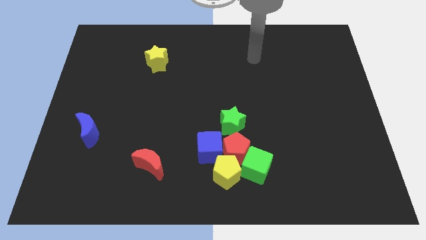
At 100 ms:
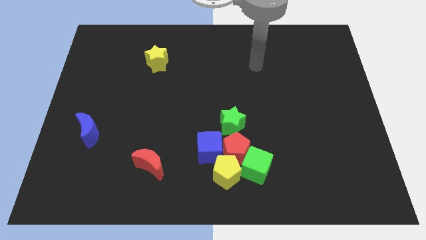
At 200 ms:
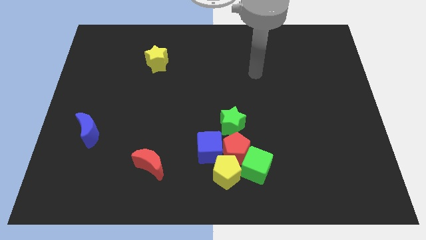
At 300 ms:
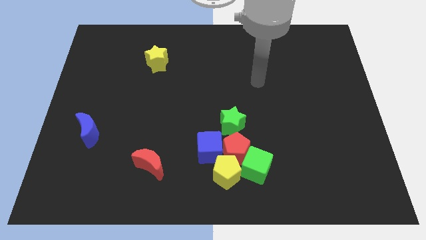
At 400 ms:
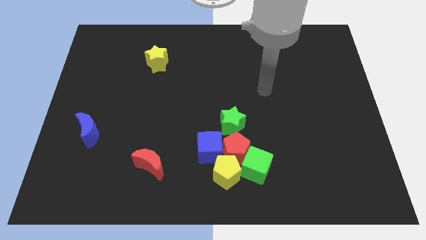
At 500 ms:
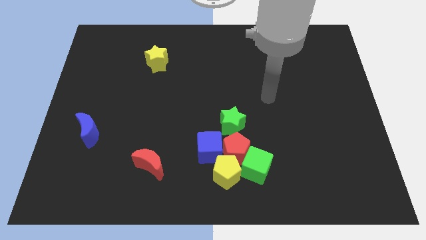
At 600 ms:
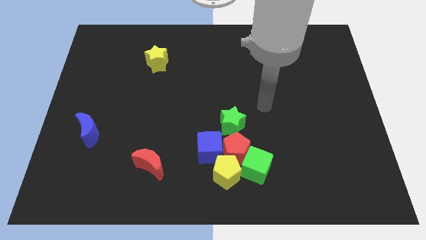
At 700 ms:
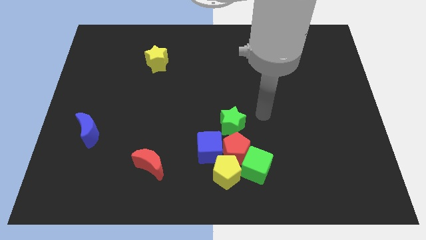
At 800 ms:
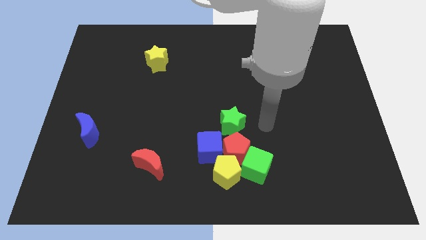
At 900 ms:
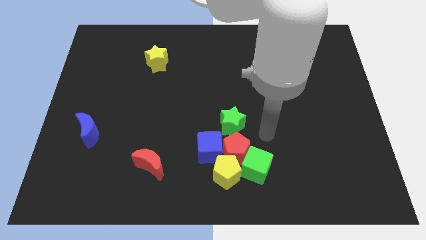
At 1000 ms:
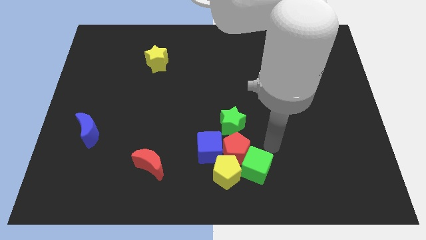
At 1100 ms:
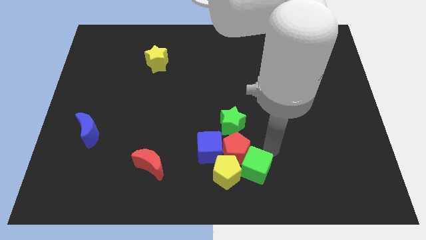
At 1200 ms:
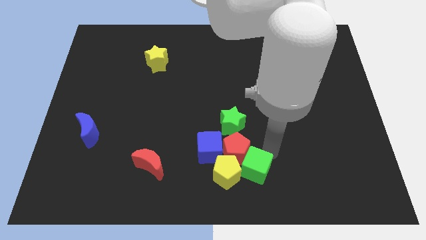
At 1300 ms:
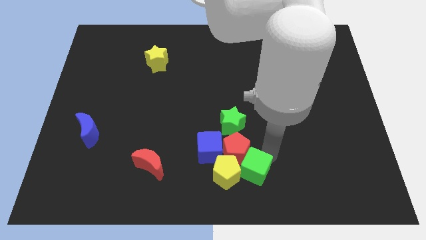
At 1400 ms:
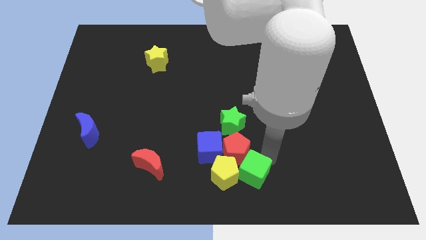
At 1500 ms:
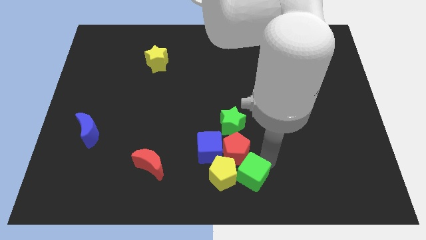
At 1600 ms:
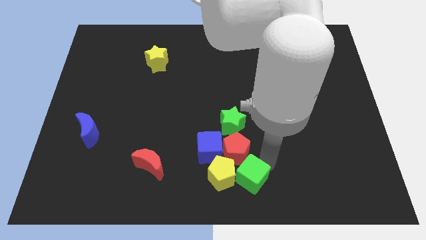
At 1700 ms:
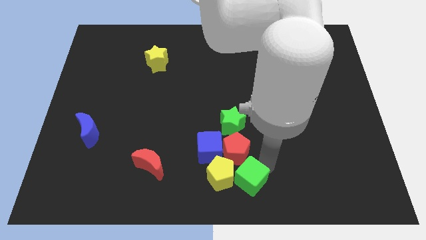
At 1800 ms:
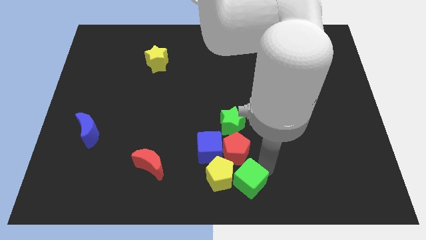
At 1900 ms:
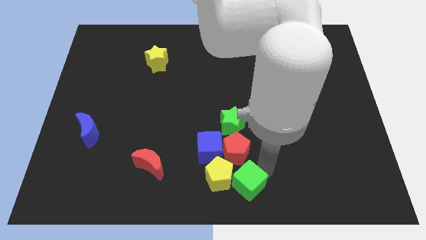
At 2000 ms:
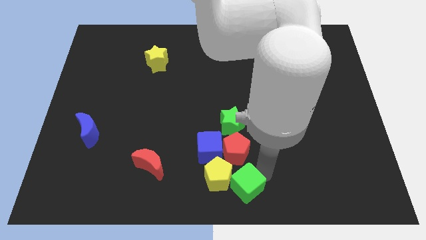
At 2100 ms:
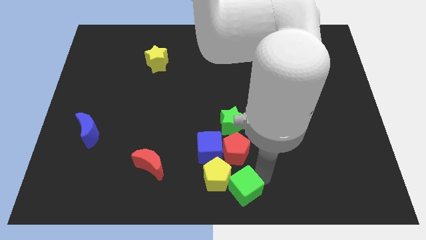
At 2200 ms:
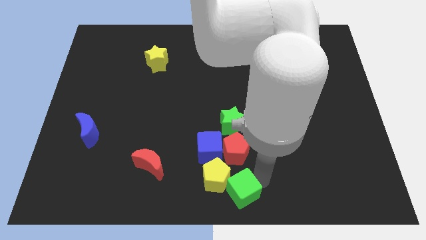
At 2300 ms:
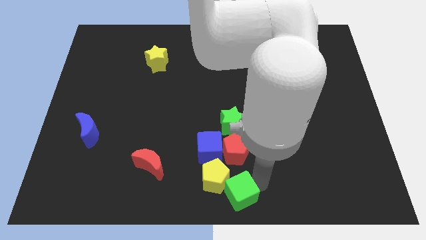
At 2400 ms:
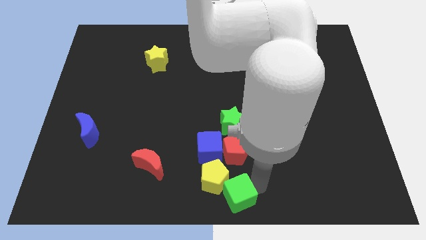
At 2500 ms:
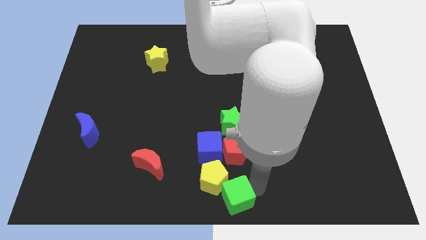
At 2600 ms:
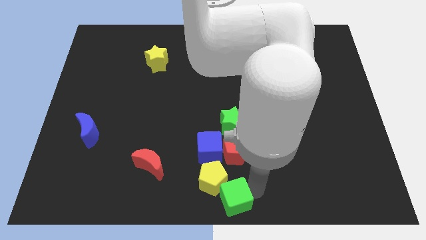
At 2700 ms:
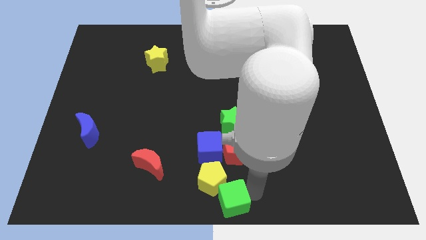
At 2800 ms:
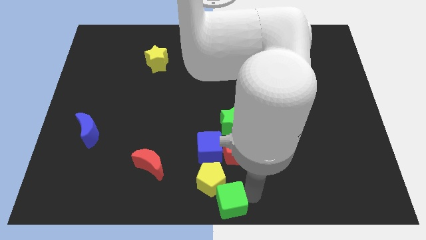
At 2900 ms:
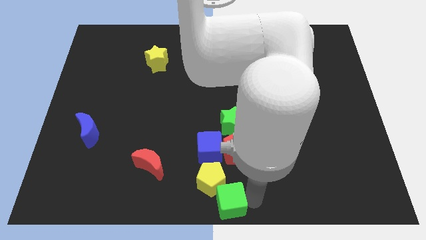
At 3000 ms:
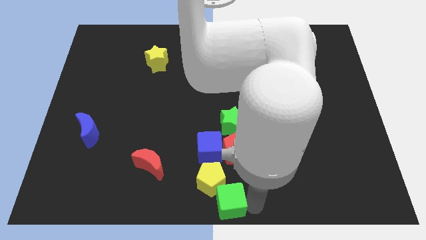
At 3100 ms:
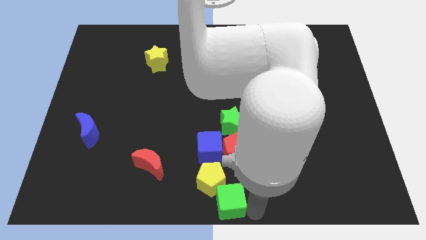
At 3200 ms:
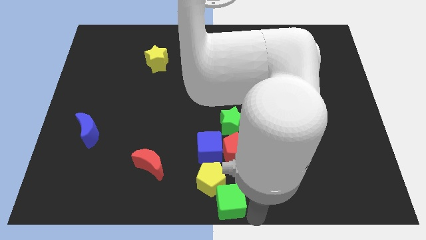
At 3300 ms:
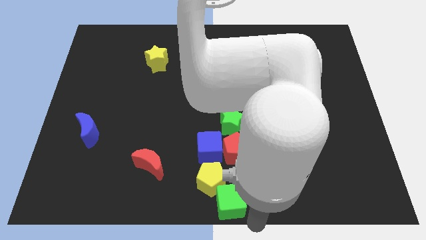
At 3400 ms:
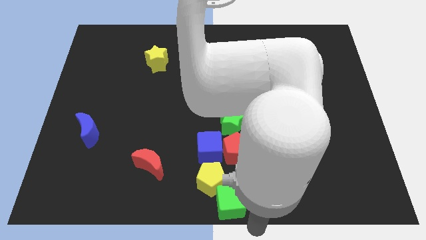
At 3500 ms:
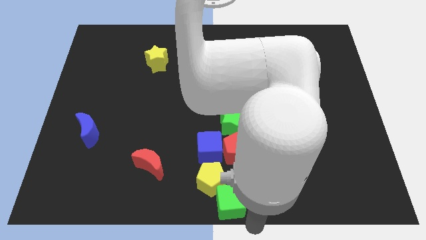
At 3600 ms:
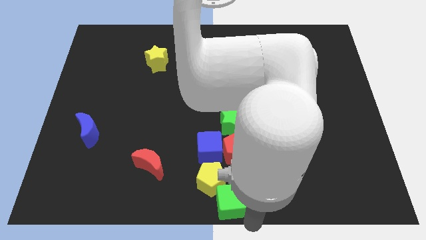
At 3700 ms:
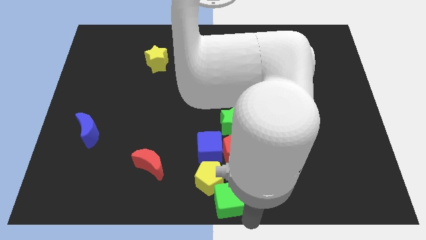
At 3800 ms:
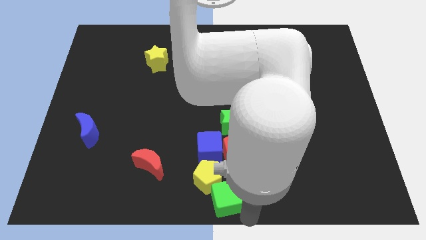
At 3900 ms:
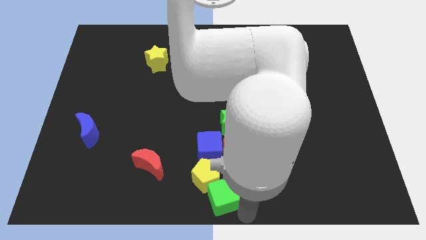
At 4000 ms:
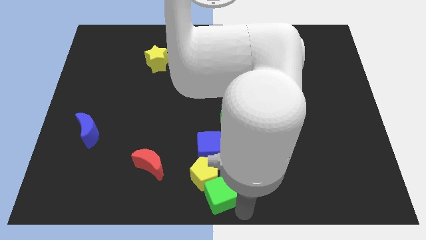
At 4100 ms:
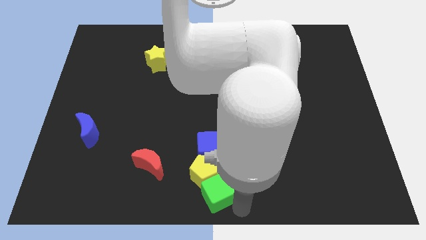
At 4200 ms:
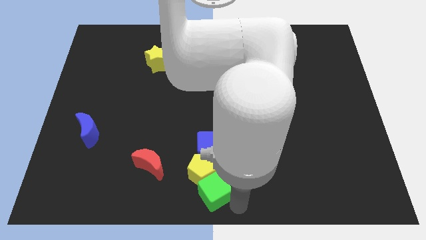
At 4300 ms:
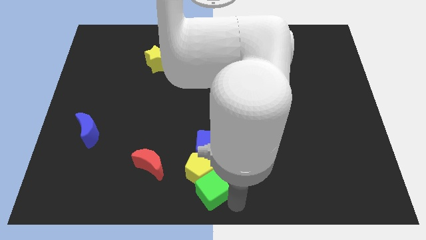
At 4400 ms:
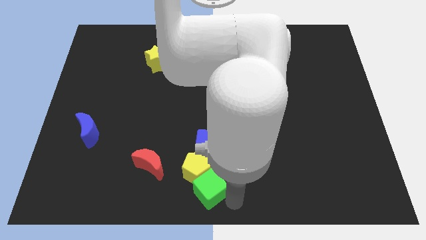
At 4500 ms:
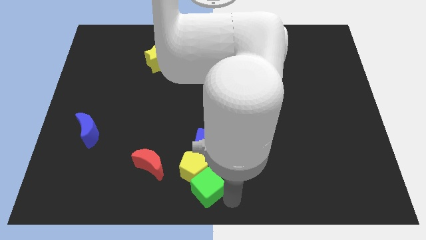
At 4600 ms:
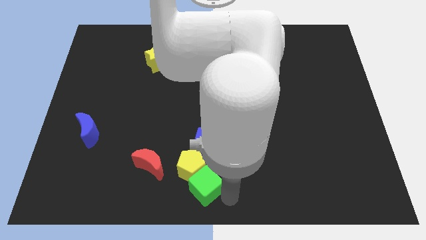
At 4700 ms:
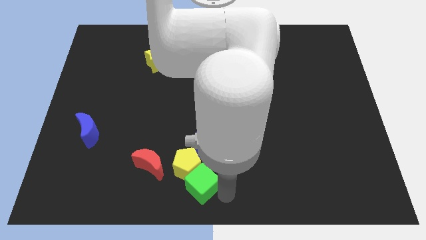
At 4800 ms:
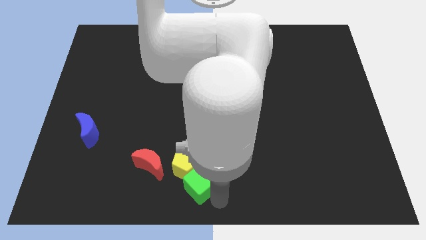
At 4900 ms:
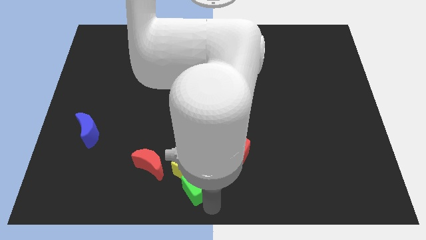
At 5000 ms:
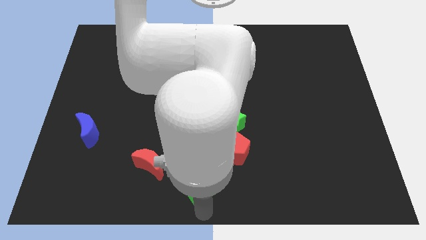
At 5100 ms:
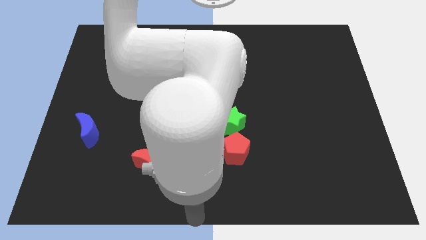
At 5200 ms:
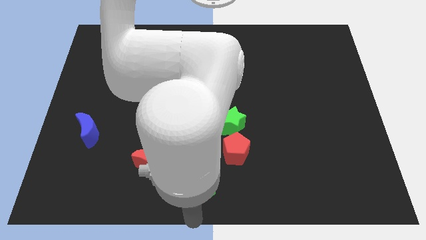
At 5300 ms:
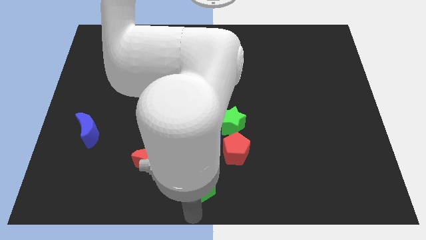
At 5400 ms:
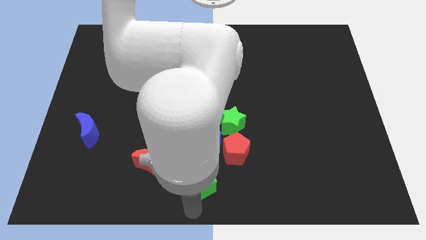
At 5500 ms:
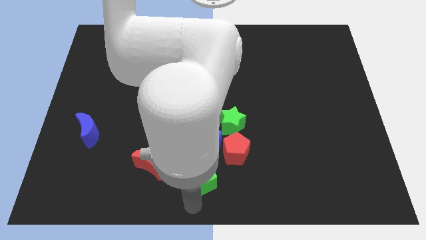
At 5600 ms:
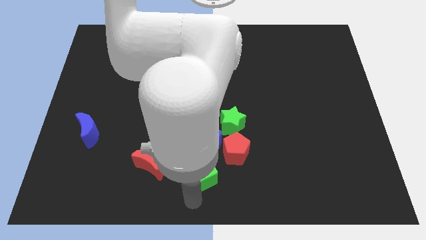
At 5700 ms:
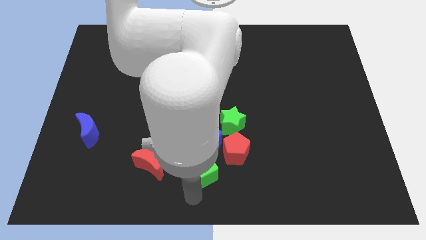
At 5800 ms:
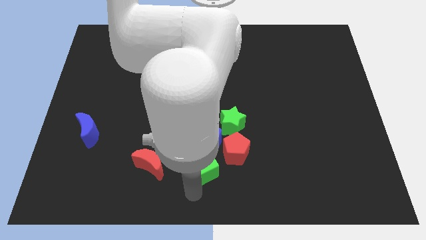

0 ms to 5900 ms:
put the green cube close to the blue cube

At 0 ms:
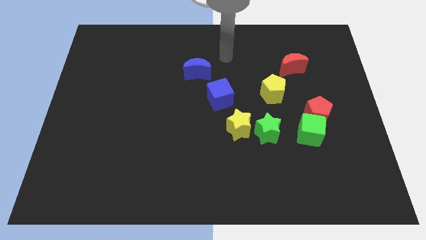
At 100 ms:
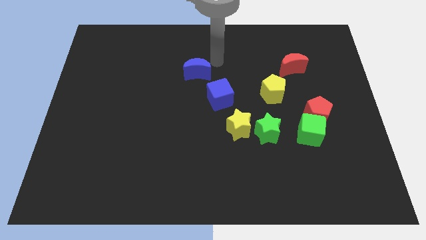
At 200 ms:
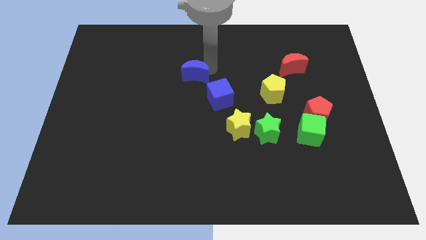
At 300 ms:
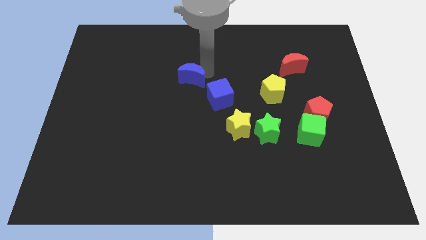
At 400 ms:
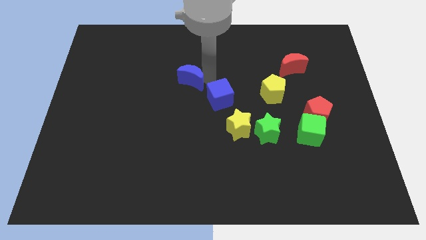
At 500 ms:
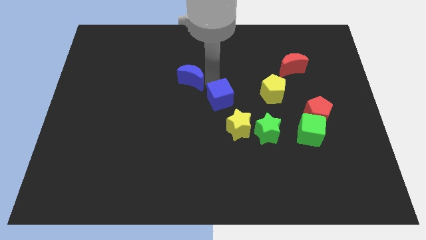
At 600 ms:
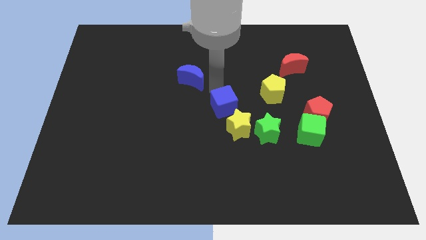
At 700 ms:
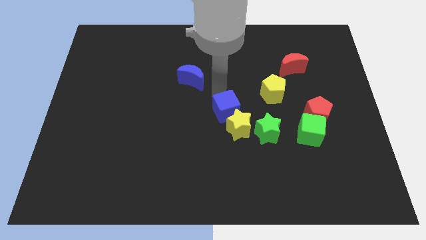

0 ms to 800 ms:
push the blue cube close to the yellow star
